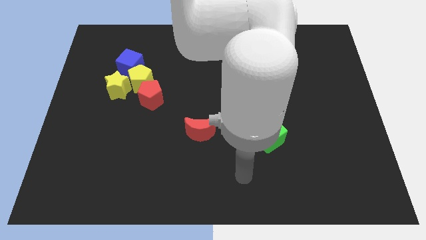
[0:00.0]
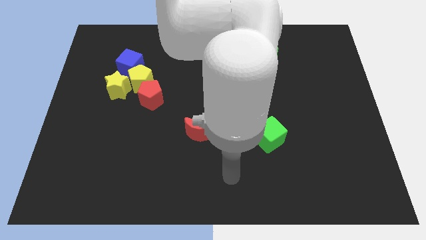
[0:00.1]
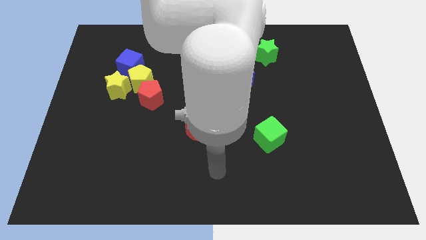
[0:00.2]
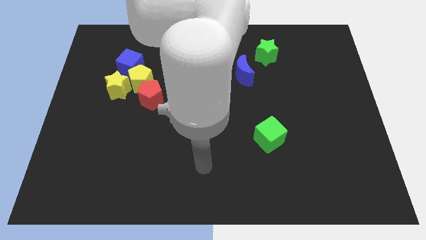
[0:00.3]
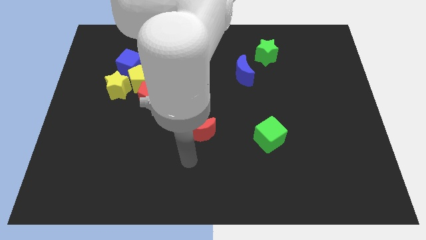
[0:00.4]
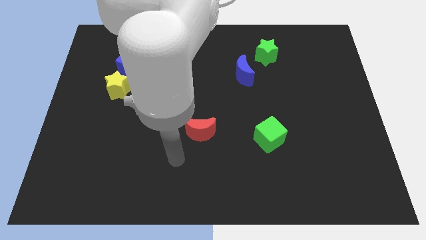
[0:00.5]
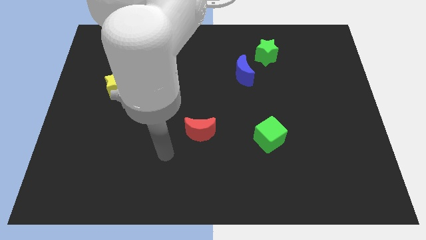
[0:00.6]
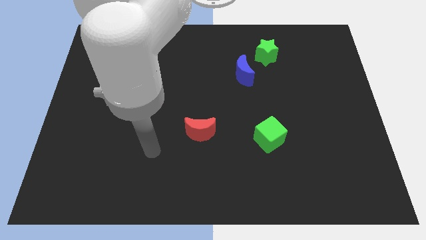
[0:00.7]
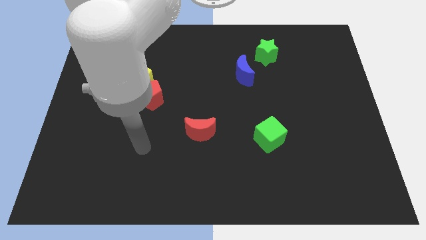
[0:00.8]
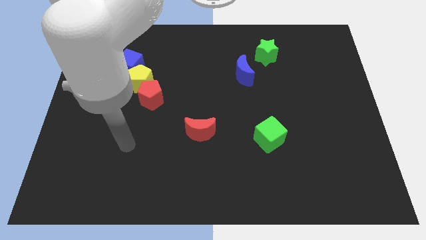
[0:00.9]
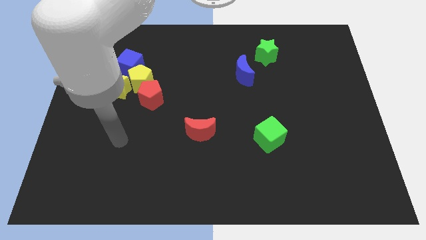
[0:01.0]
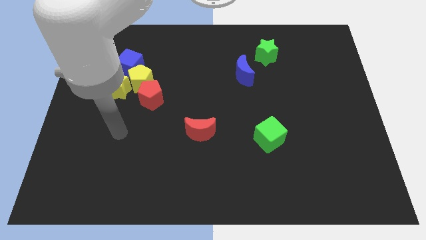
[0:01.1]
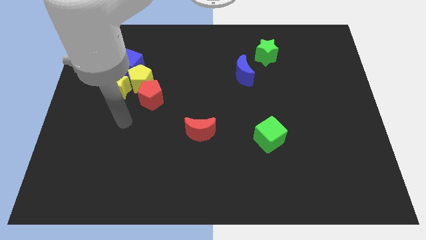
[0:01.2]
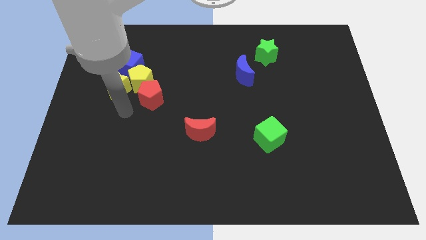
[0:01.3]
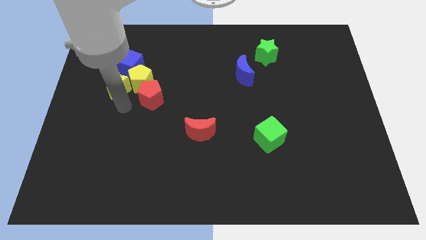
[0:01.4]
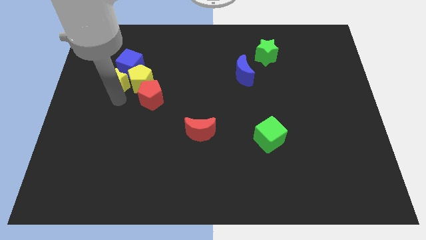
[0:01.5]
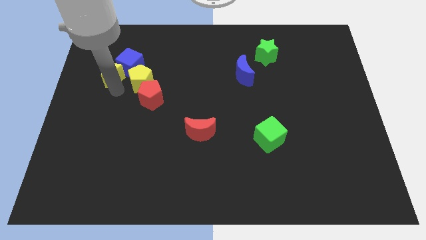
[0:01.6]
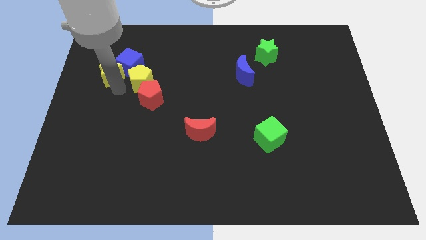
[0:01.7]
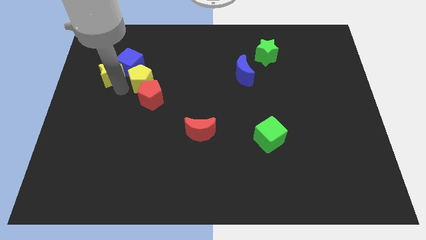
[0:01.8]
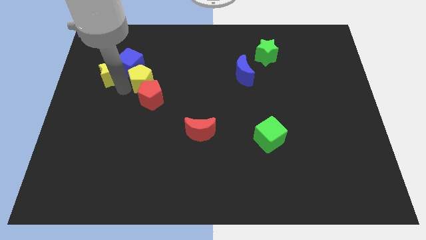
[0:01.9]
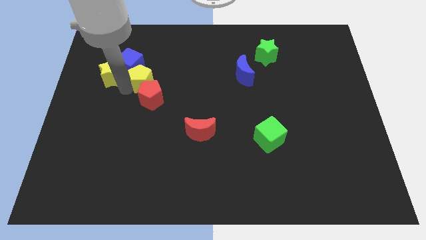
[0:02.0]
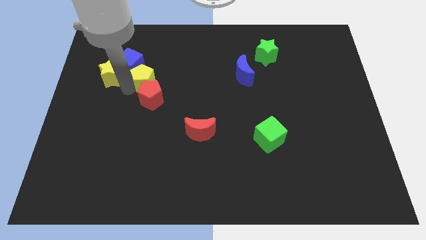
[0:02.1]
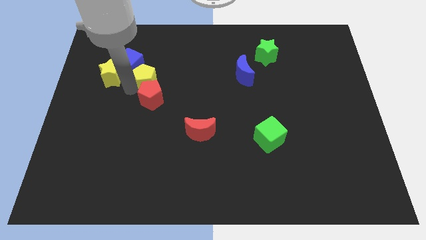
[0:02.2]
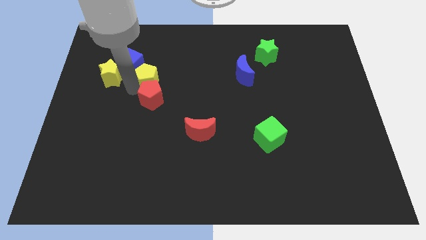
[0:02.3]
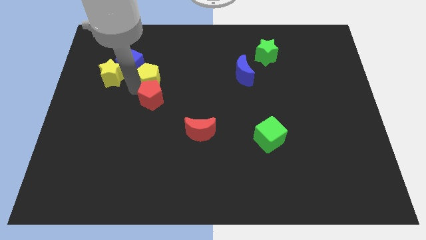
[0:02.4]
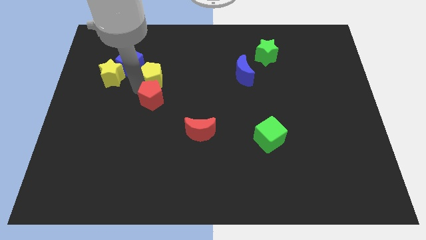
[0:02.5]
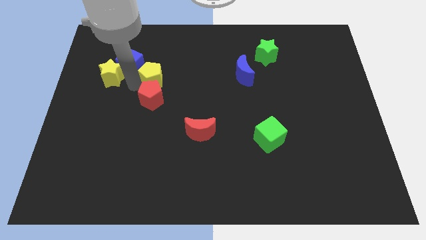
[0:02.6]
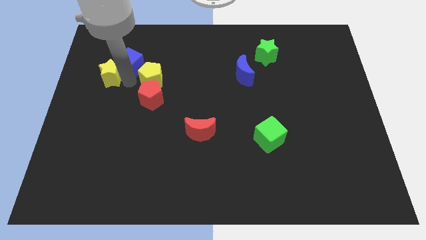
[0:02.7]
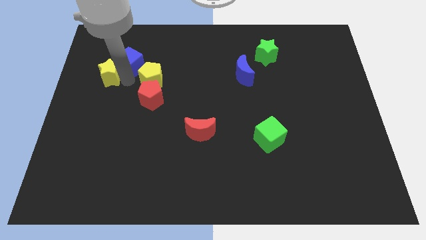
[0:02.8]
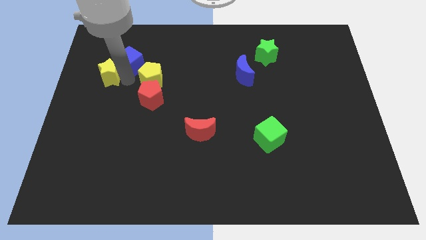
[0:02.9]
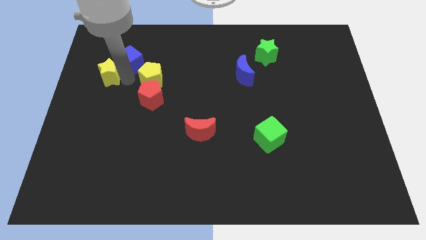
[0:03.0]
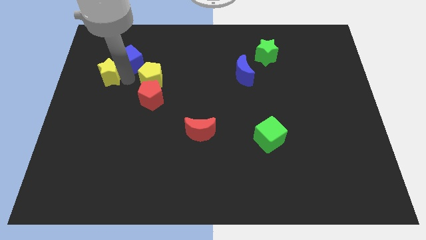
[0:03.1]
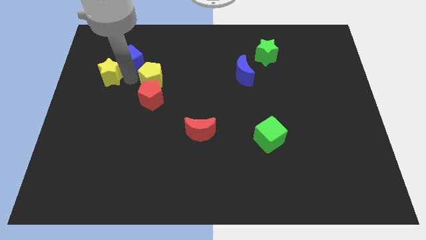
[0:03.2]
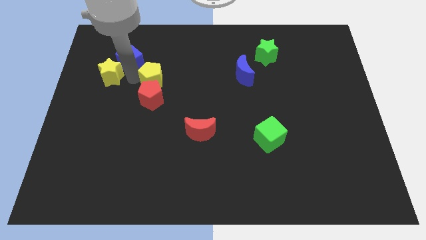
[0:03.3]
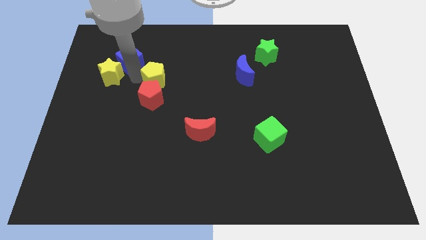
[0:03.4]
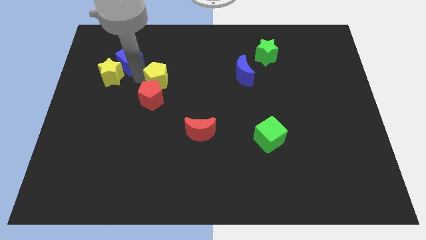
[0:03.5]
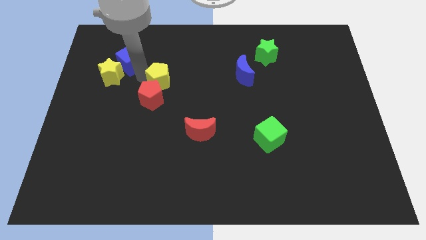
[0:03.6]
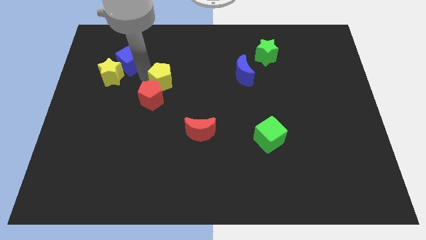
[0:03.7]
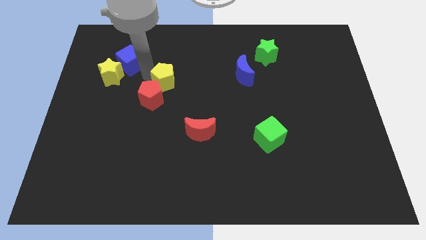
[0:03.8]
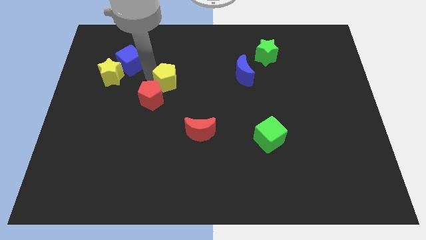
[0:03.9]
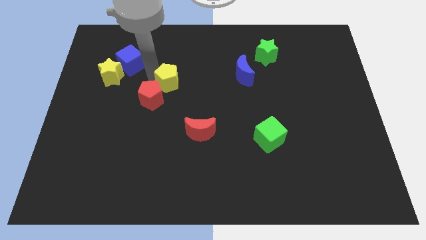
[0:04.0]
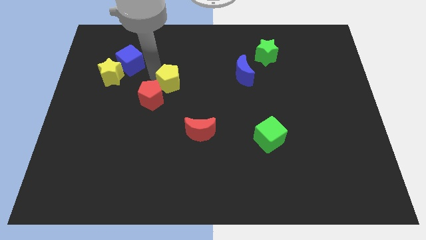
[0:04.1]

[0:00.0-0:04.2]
separate the yellow pentagon from the group

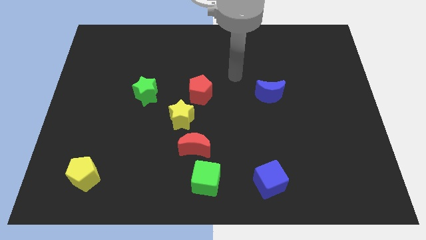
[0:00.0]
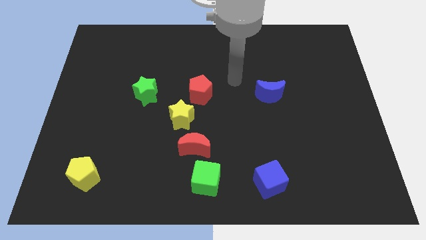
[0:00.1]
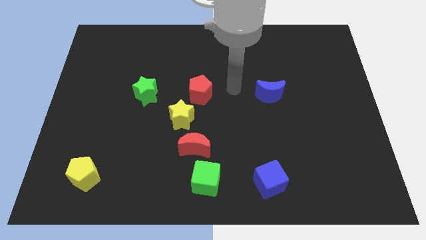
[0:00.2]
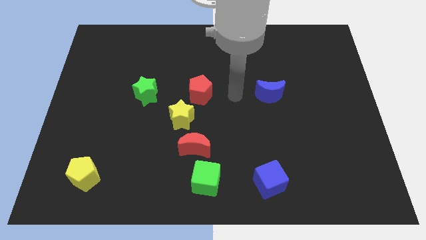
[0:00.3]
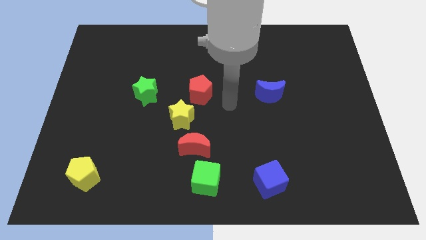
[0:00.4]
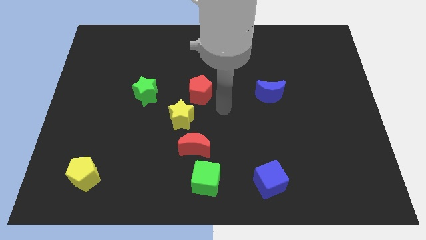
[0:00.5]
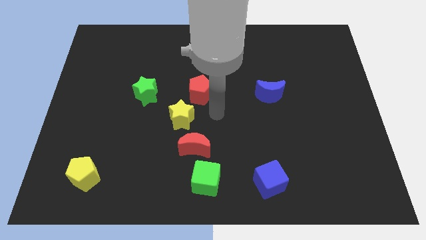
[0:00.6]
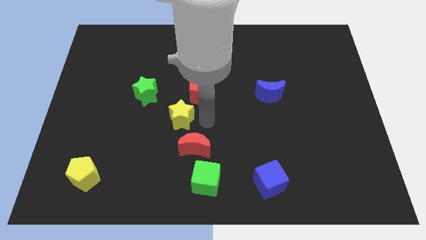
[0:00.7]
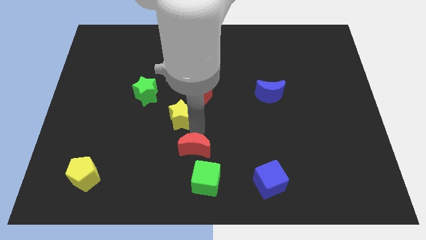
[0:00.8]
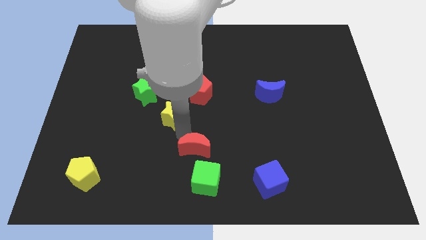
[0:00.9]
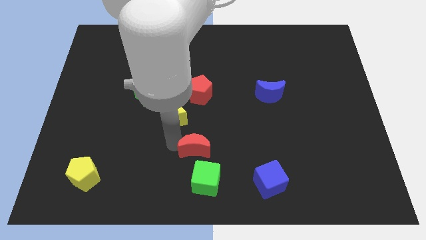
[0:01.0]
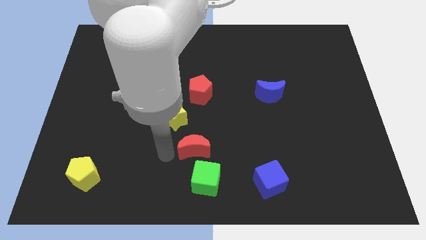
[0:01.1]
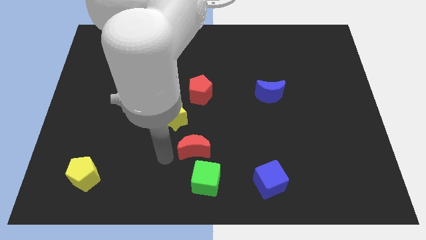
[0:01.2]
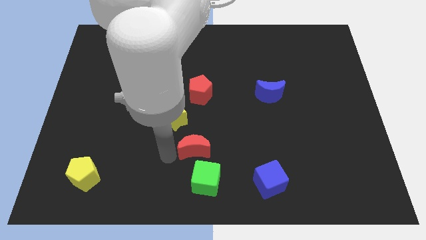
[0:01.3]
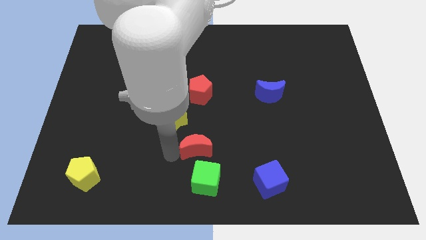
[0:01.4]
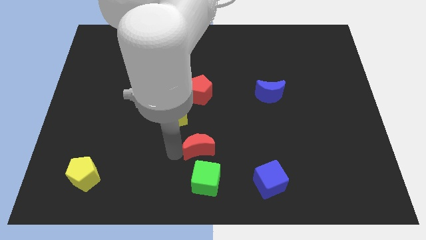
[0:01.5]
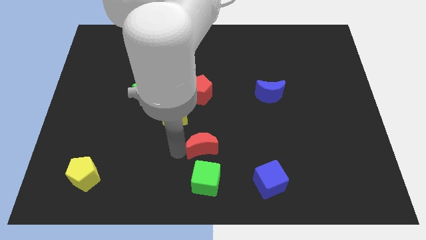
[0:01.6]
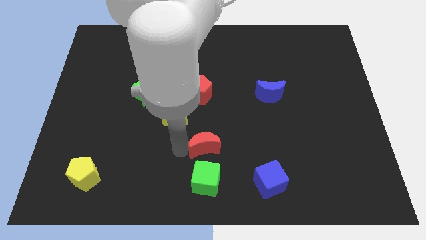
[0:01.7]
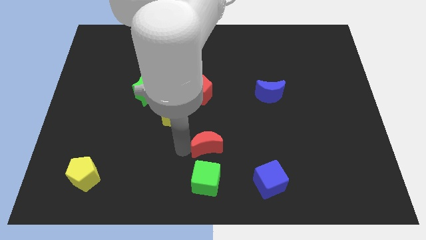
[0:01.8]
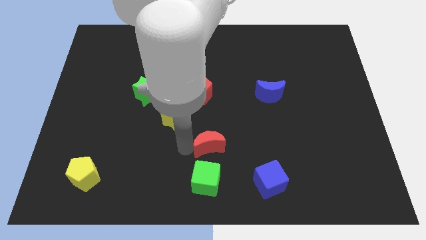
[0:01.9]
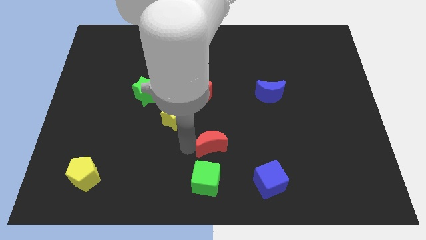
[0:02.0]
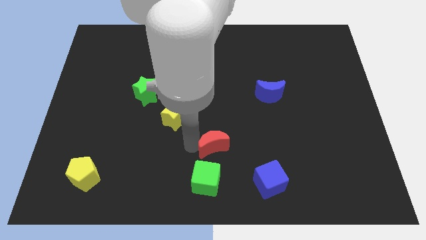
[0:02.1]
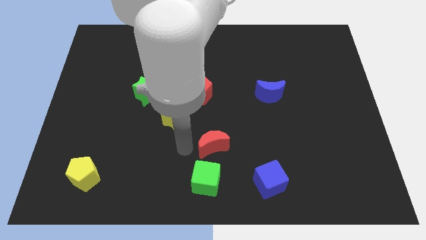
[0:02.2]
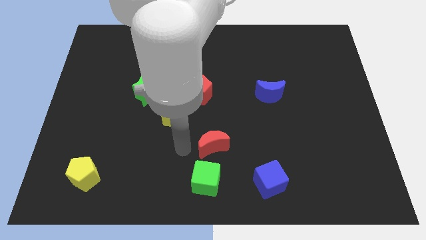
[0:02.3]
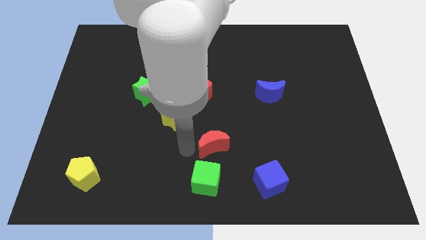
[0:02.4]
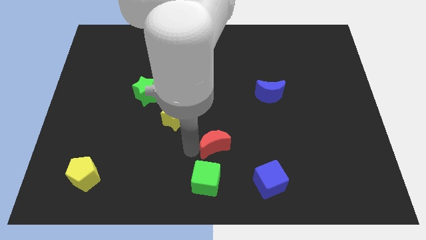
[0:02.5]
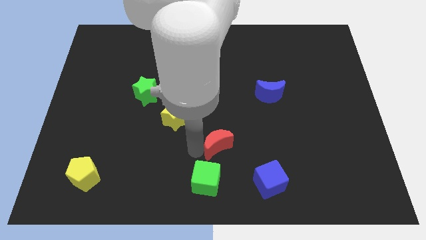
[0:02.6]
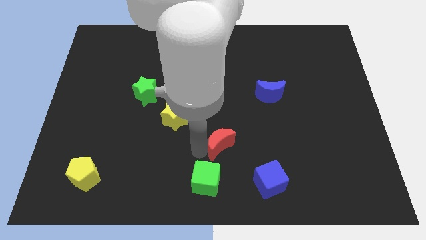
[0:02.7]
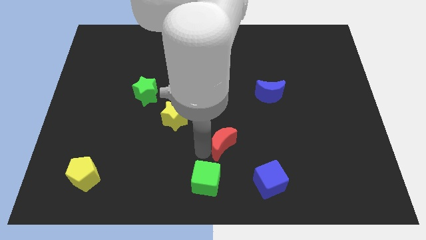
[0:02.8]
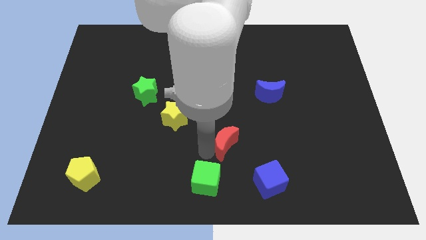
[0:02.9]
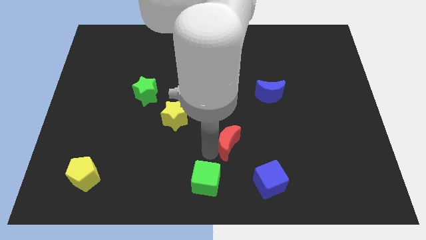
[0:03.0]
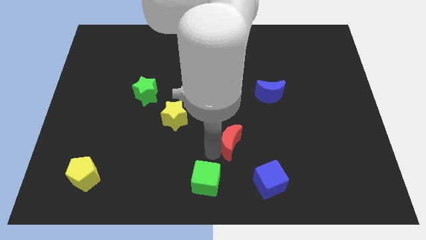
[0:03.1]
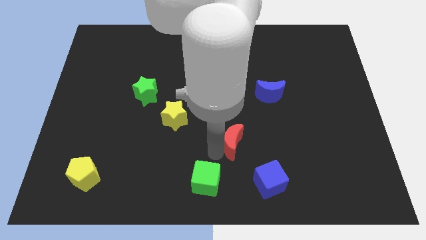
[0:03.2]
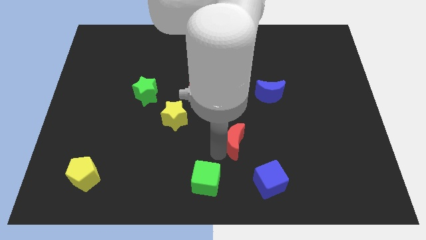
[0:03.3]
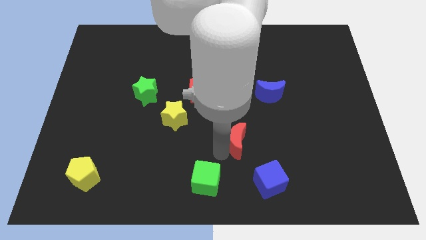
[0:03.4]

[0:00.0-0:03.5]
pull the red moon apart from the yellow star and green cube

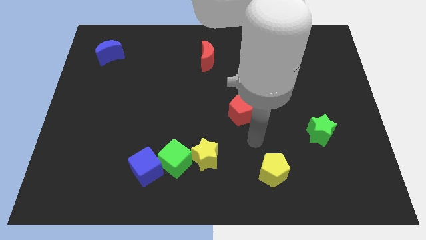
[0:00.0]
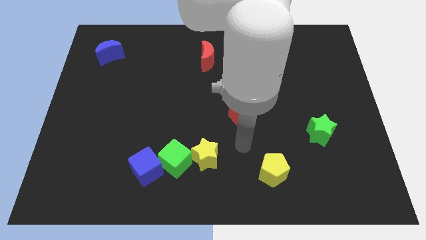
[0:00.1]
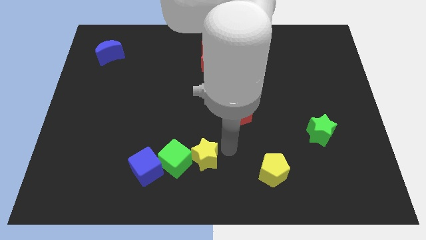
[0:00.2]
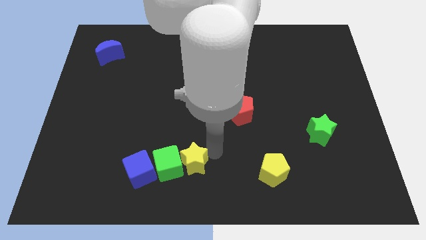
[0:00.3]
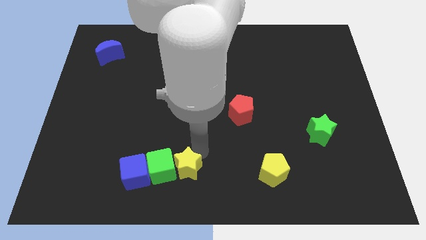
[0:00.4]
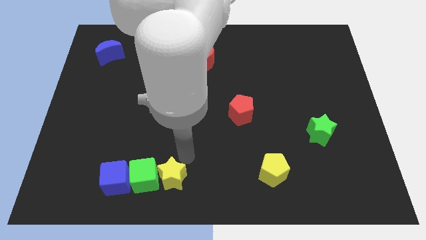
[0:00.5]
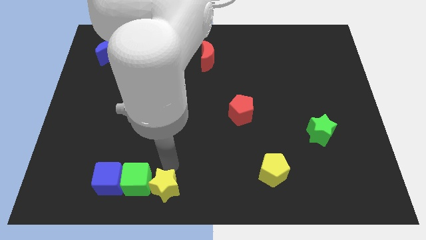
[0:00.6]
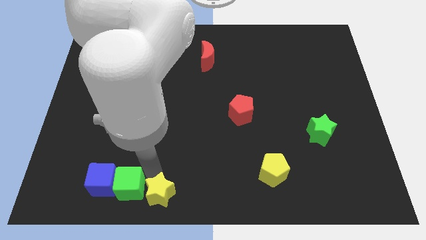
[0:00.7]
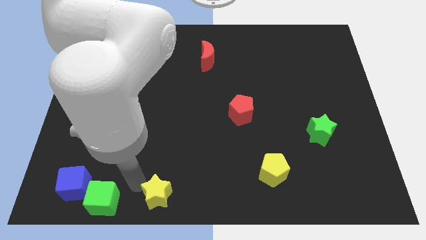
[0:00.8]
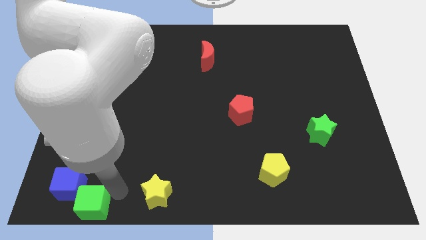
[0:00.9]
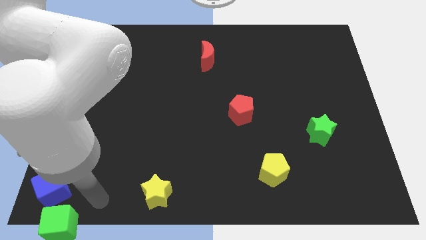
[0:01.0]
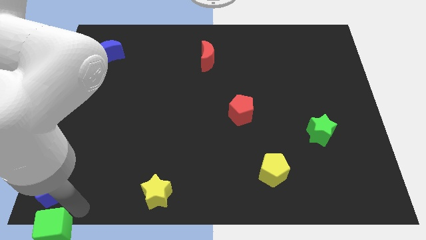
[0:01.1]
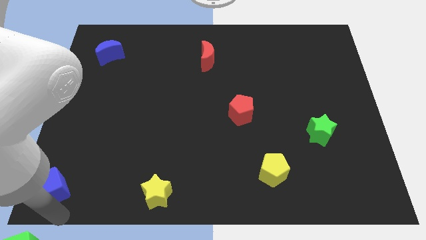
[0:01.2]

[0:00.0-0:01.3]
move the blue cube away from the green cube

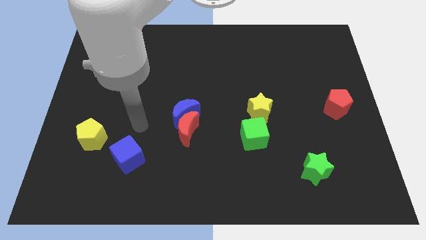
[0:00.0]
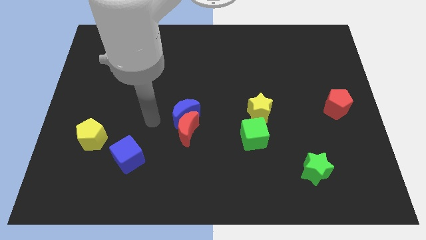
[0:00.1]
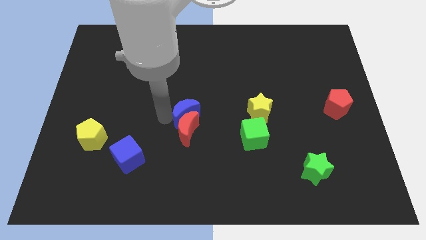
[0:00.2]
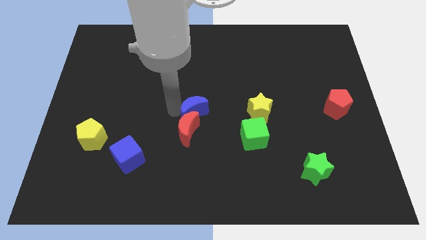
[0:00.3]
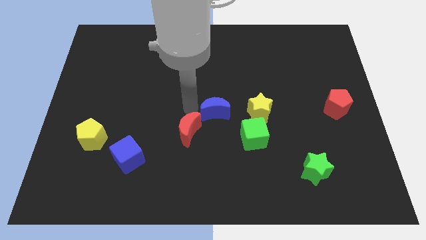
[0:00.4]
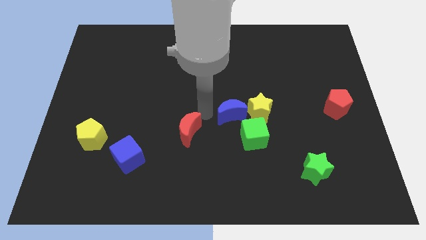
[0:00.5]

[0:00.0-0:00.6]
move the red moon away from the blue moon
